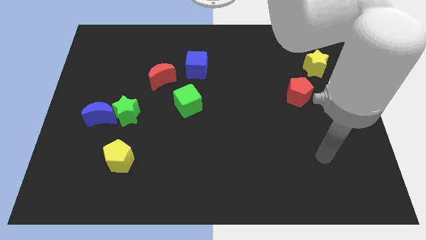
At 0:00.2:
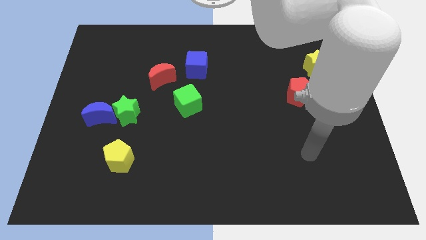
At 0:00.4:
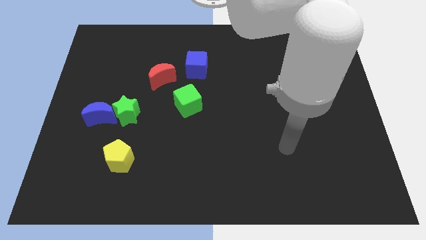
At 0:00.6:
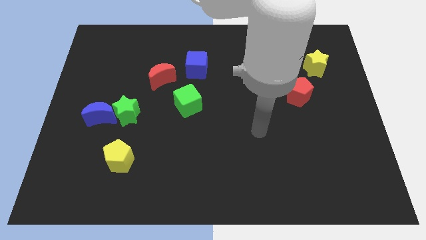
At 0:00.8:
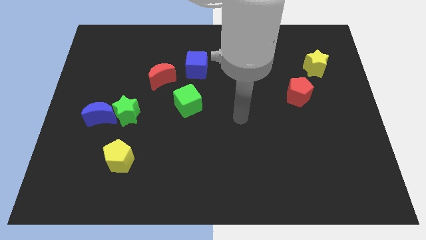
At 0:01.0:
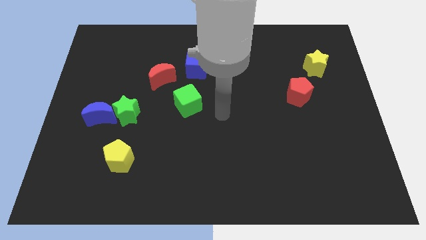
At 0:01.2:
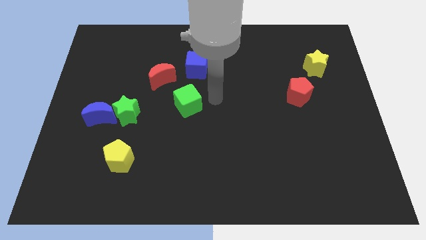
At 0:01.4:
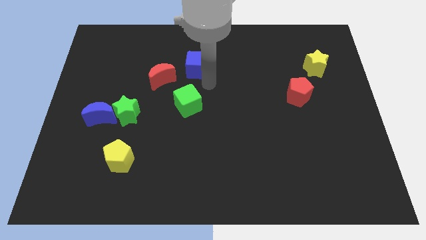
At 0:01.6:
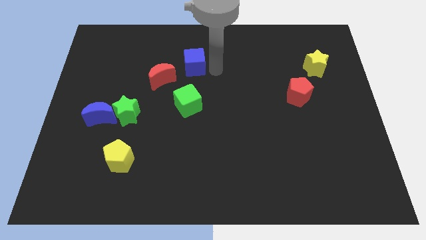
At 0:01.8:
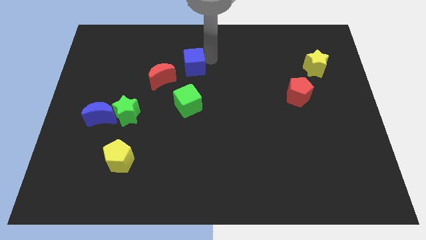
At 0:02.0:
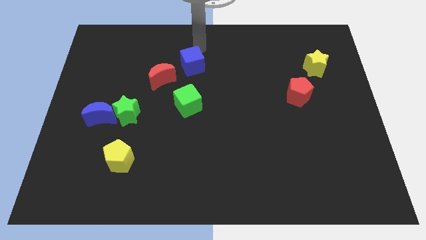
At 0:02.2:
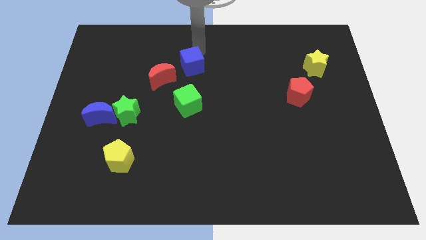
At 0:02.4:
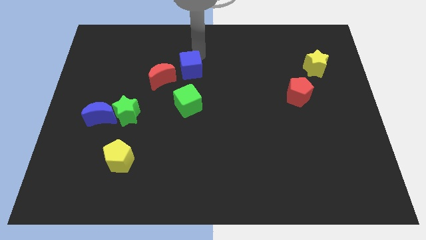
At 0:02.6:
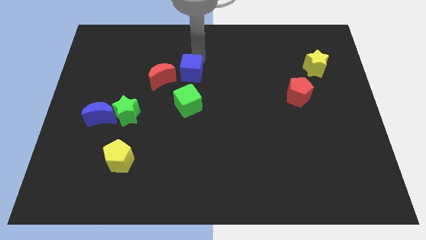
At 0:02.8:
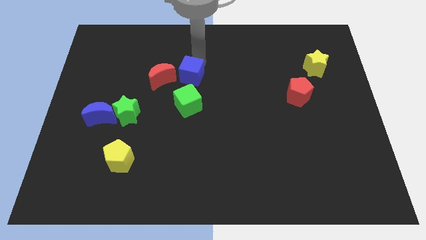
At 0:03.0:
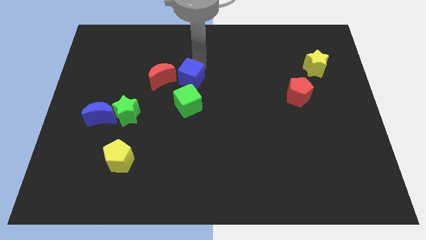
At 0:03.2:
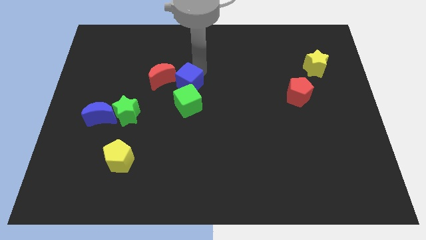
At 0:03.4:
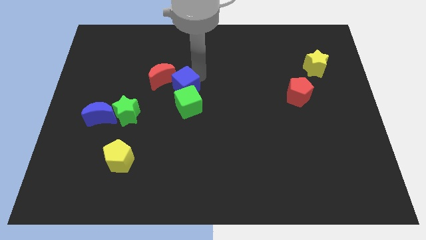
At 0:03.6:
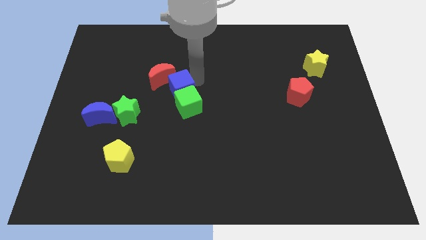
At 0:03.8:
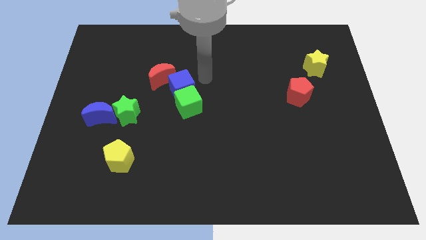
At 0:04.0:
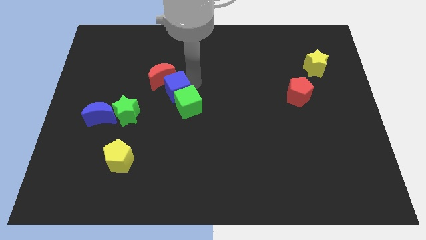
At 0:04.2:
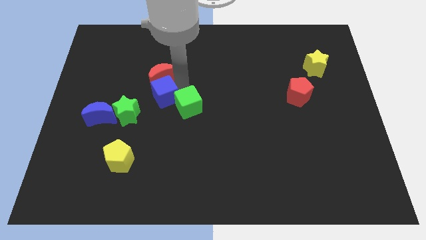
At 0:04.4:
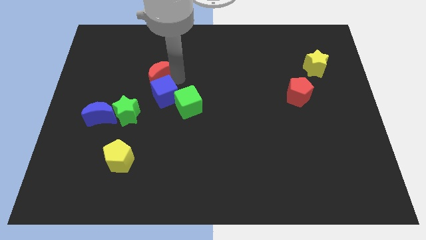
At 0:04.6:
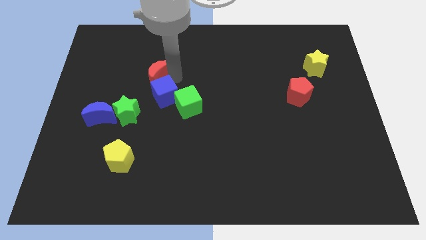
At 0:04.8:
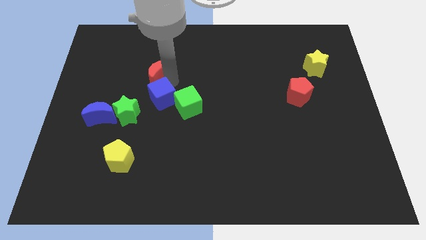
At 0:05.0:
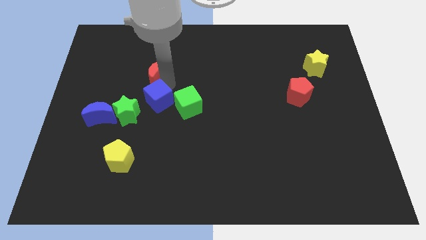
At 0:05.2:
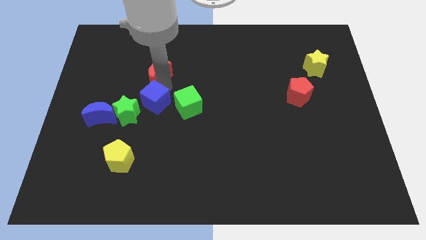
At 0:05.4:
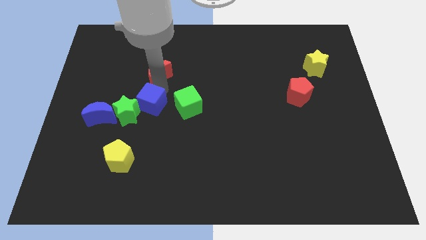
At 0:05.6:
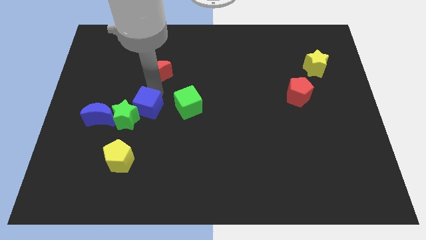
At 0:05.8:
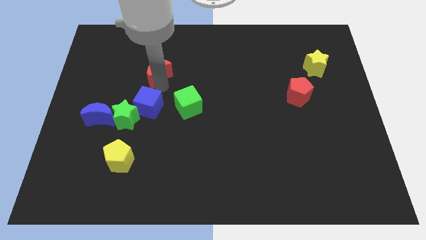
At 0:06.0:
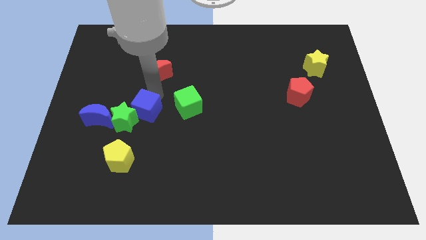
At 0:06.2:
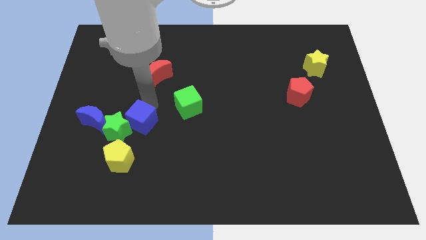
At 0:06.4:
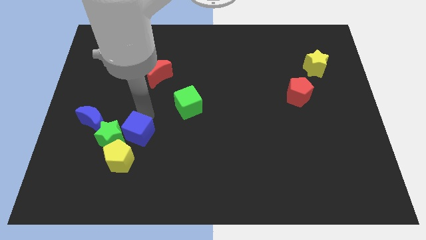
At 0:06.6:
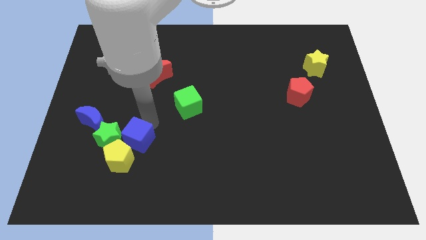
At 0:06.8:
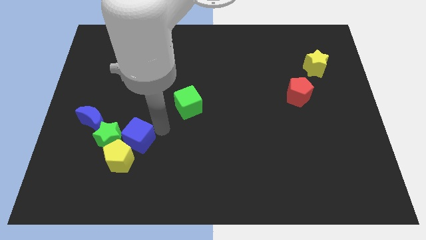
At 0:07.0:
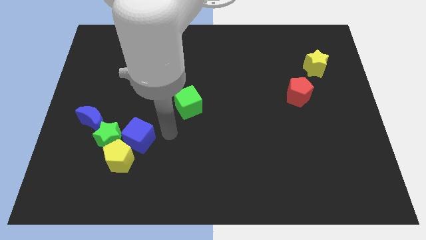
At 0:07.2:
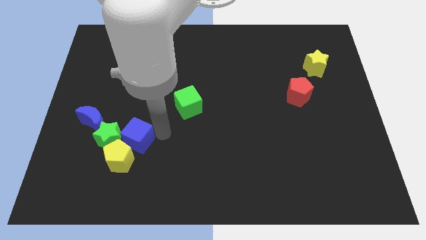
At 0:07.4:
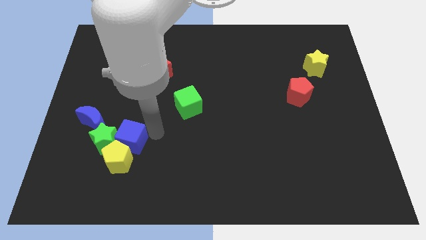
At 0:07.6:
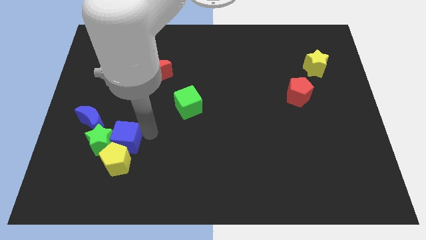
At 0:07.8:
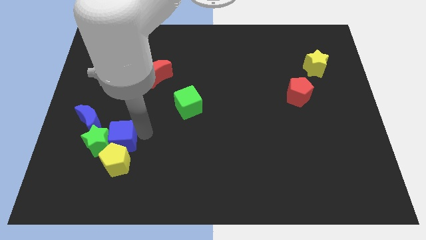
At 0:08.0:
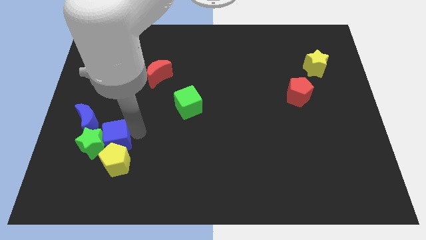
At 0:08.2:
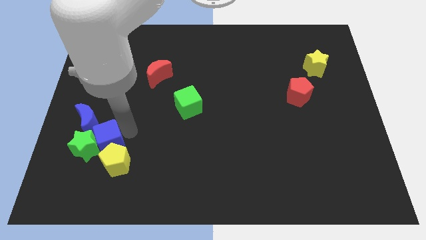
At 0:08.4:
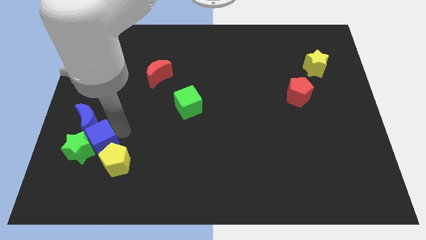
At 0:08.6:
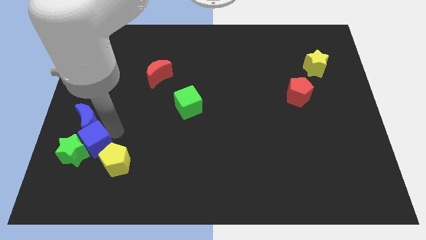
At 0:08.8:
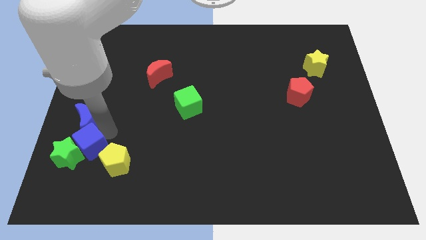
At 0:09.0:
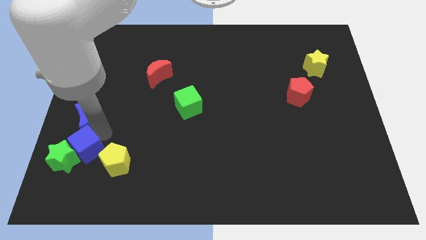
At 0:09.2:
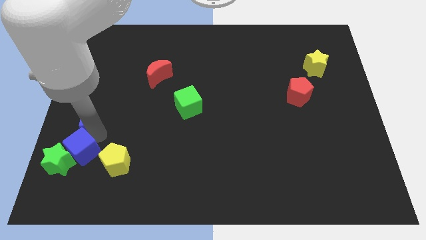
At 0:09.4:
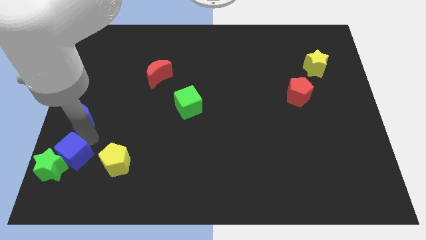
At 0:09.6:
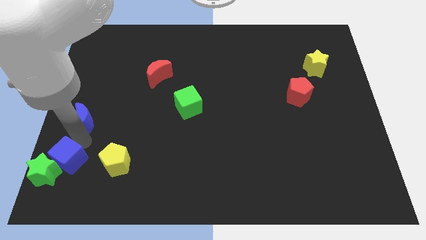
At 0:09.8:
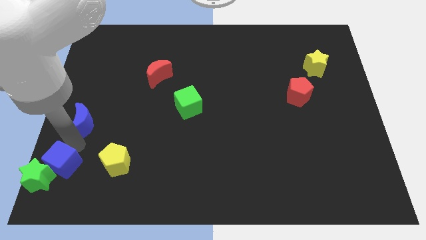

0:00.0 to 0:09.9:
put the blue cube to the lower left corner

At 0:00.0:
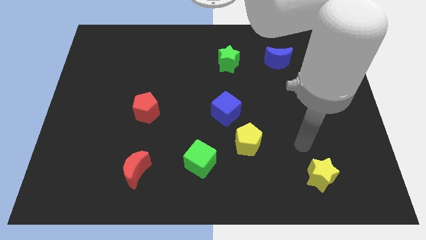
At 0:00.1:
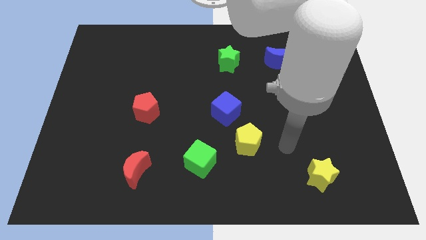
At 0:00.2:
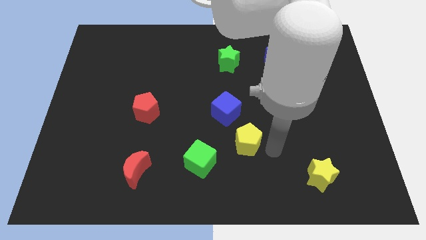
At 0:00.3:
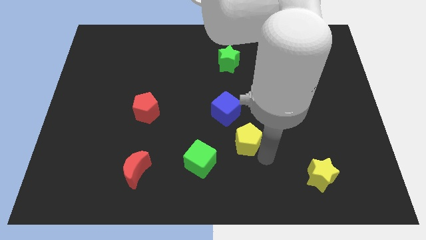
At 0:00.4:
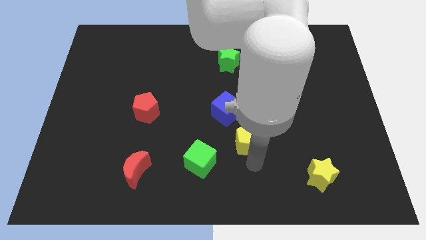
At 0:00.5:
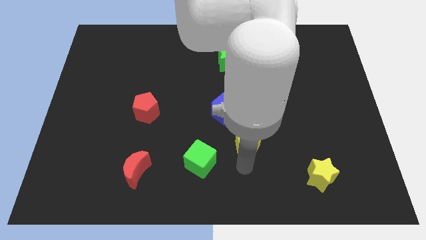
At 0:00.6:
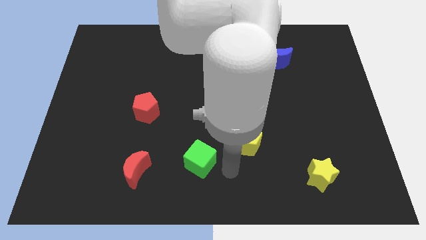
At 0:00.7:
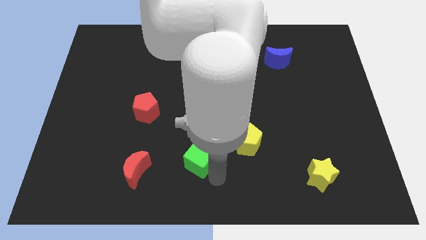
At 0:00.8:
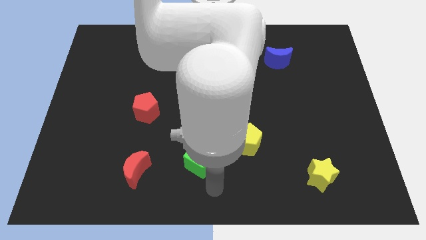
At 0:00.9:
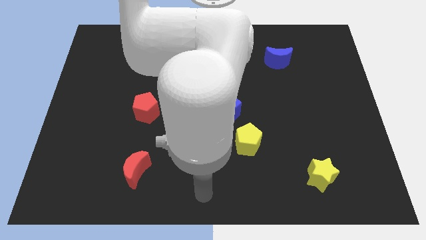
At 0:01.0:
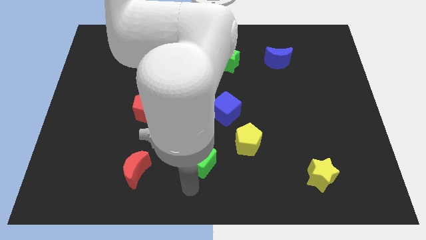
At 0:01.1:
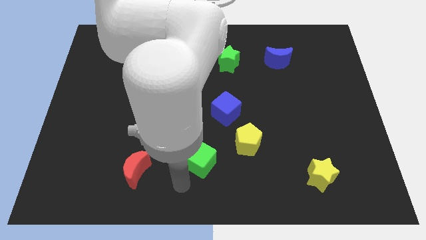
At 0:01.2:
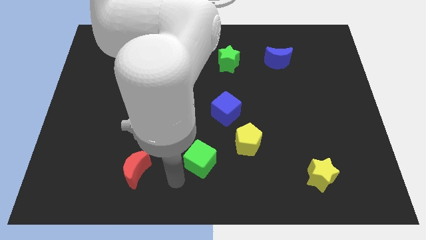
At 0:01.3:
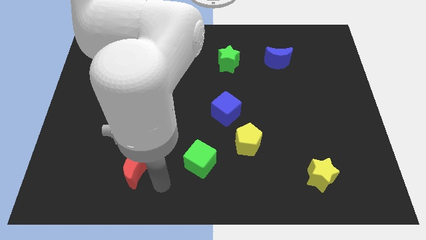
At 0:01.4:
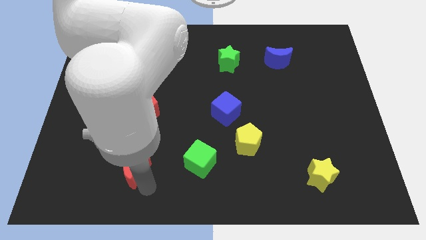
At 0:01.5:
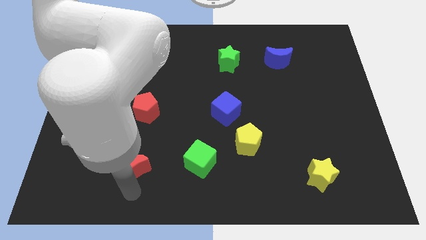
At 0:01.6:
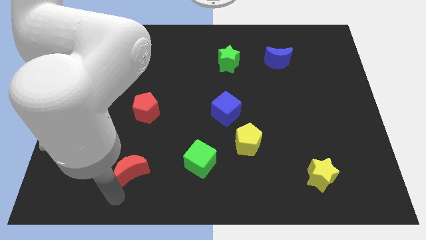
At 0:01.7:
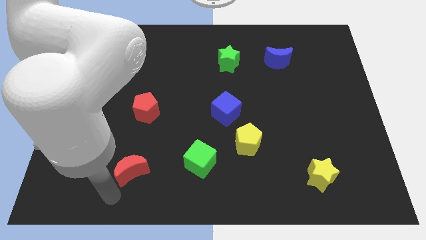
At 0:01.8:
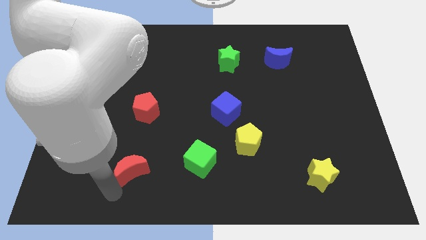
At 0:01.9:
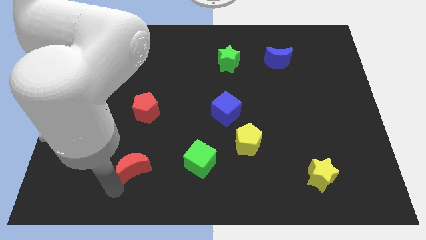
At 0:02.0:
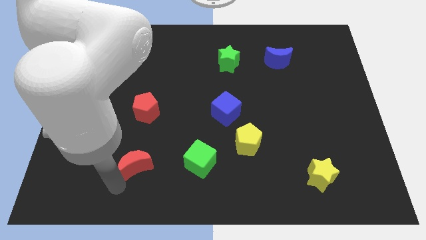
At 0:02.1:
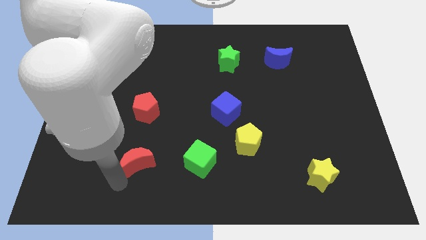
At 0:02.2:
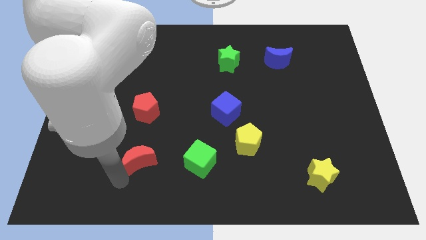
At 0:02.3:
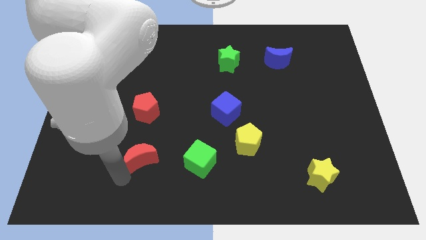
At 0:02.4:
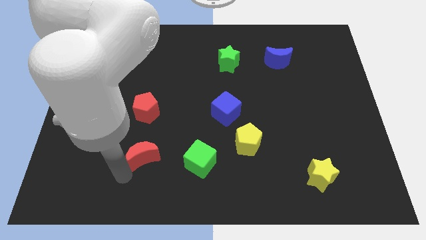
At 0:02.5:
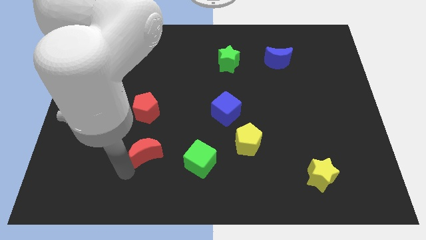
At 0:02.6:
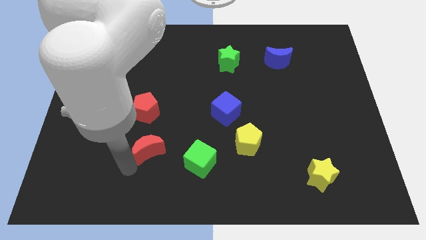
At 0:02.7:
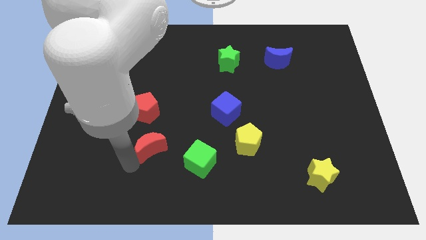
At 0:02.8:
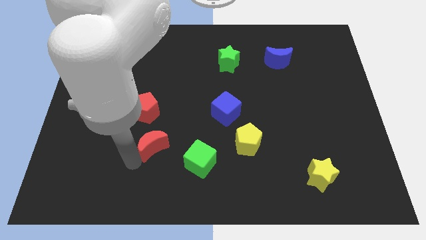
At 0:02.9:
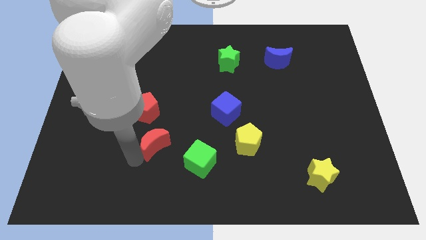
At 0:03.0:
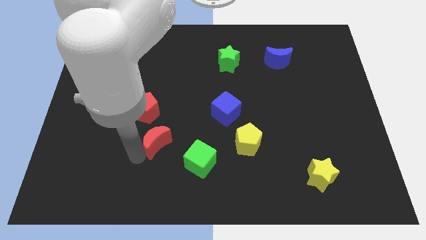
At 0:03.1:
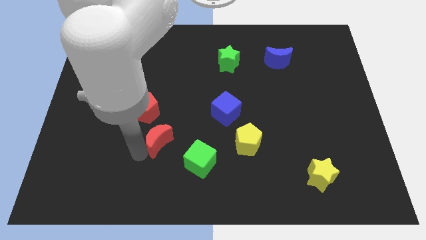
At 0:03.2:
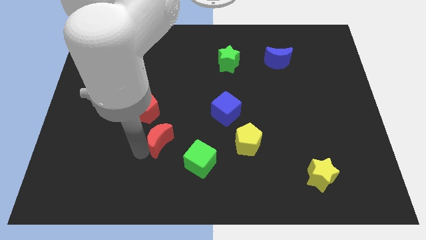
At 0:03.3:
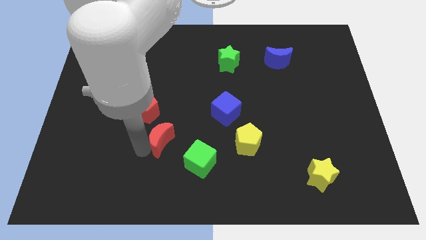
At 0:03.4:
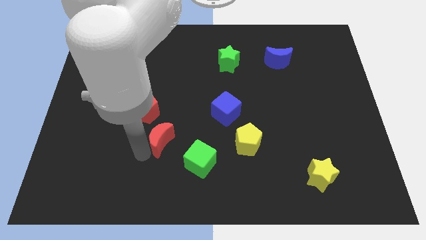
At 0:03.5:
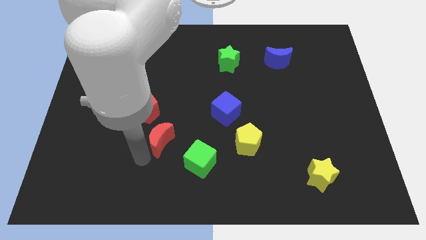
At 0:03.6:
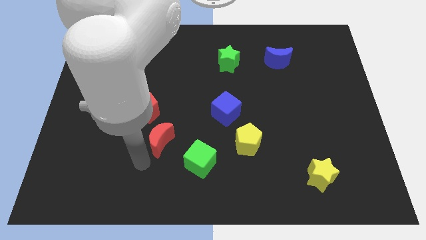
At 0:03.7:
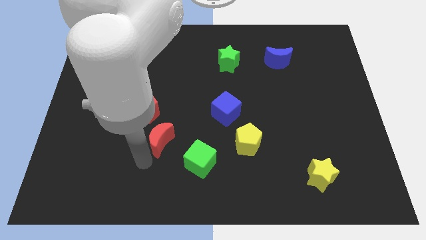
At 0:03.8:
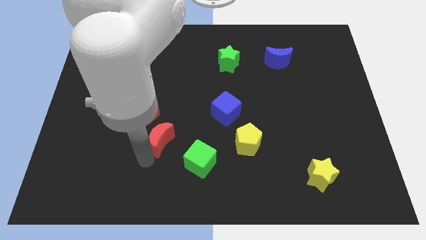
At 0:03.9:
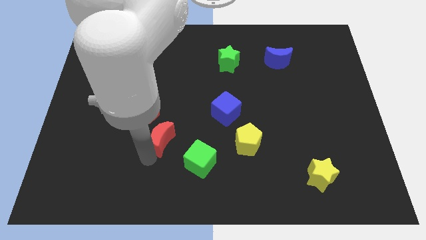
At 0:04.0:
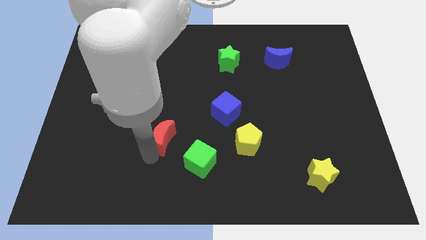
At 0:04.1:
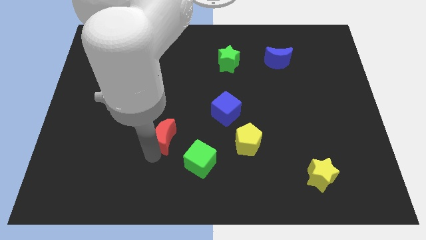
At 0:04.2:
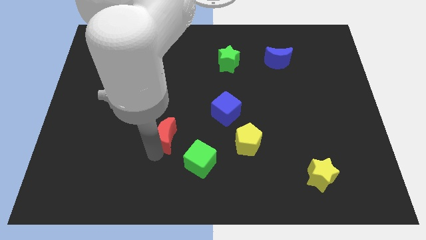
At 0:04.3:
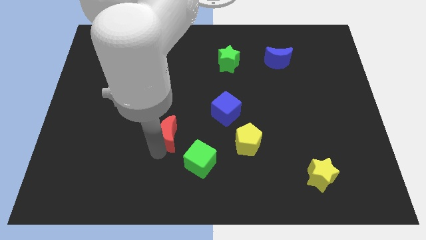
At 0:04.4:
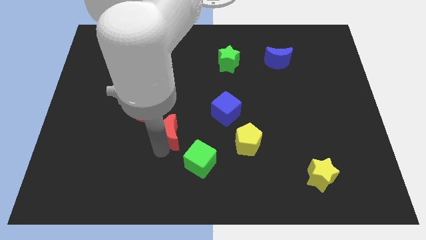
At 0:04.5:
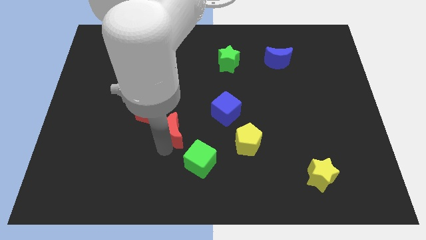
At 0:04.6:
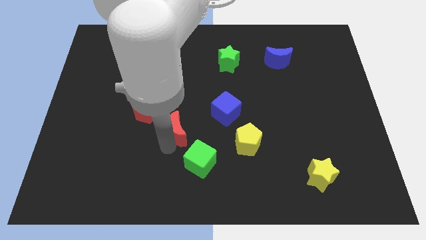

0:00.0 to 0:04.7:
move the red moon to the middle of the board
